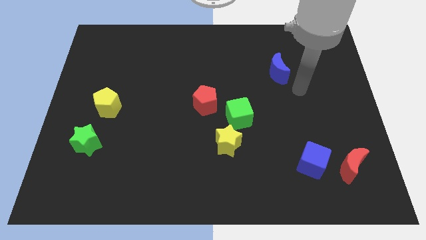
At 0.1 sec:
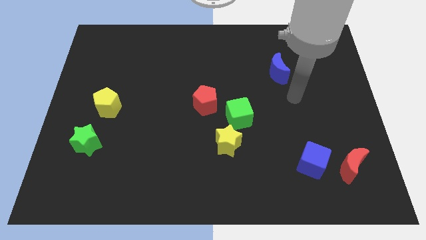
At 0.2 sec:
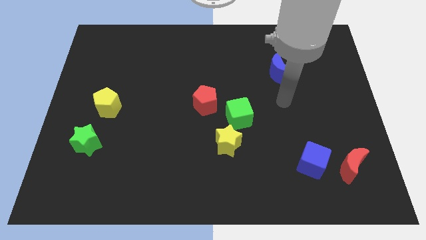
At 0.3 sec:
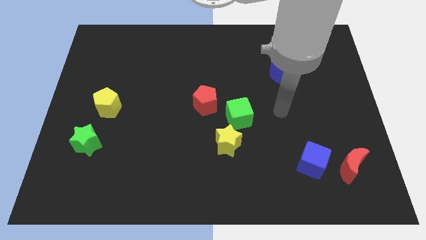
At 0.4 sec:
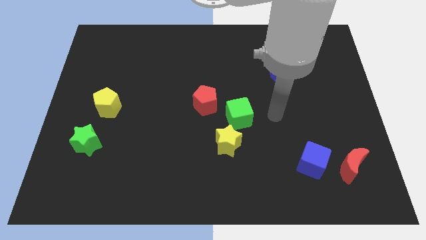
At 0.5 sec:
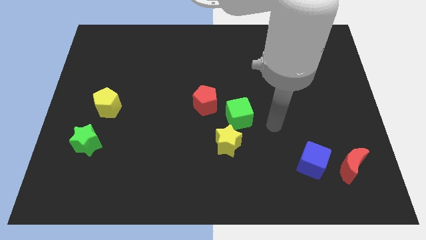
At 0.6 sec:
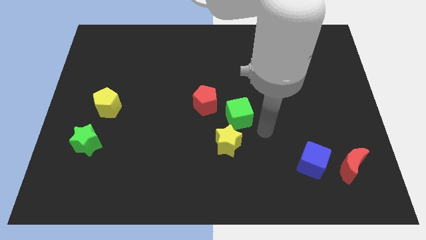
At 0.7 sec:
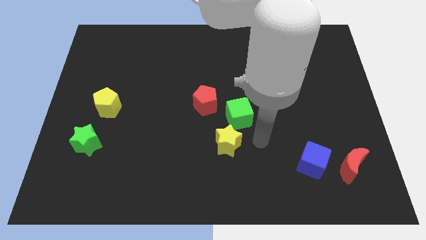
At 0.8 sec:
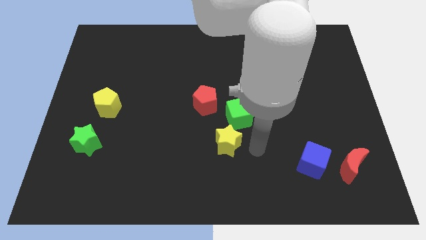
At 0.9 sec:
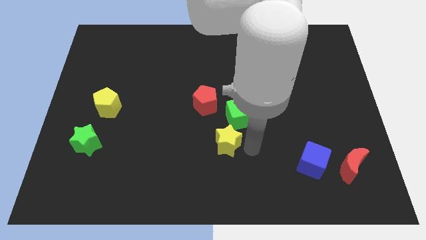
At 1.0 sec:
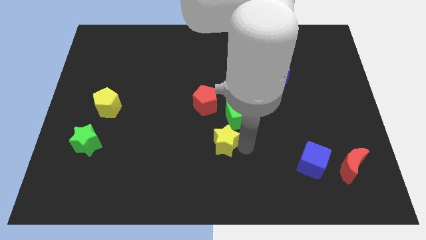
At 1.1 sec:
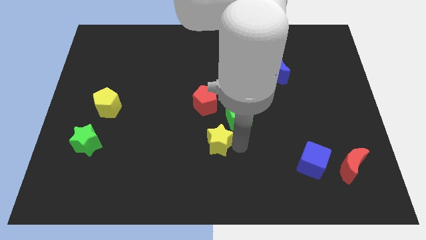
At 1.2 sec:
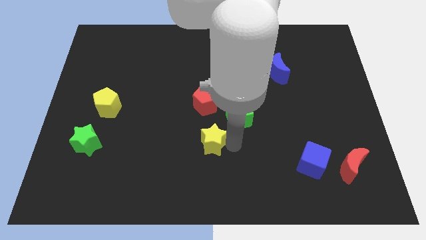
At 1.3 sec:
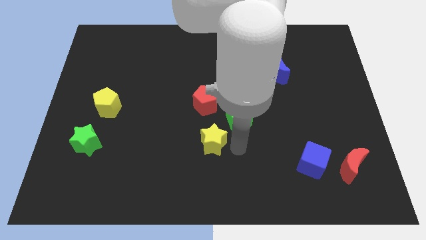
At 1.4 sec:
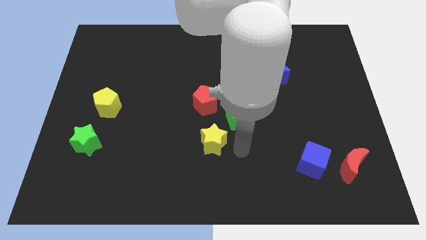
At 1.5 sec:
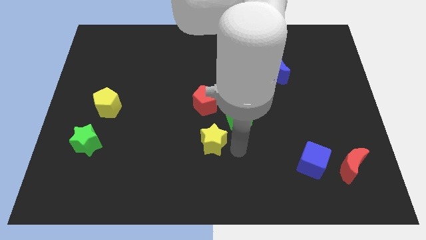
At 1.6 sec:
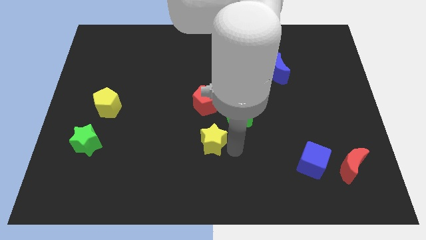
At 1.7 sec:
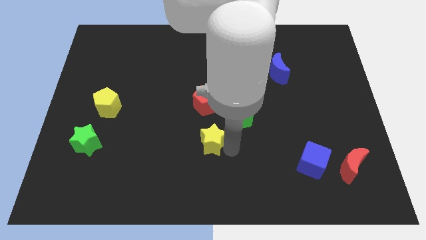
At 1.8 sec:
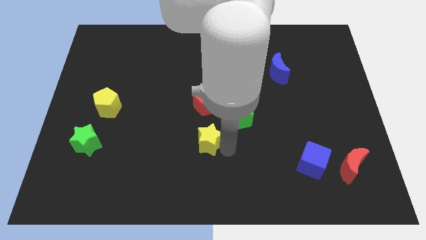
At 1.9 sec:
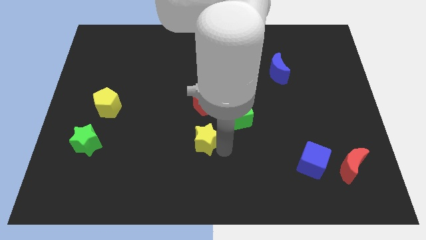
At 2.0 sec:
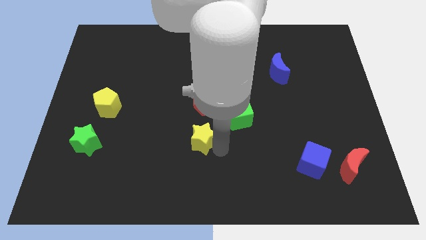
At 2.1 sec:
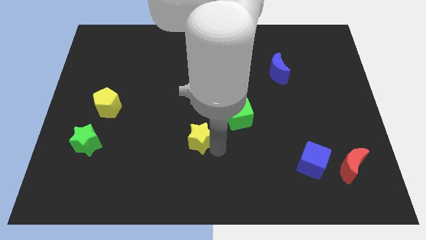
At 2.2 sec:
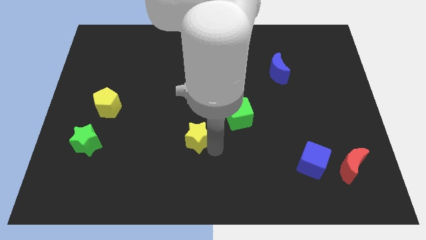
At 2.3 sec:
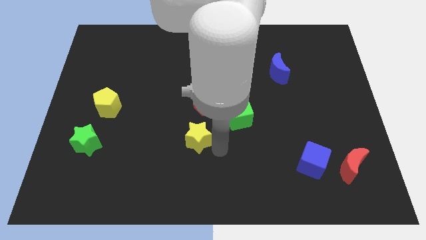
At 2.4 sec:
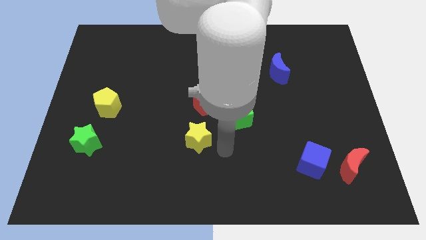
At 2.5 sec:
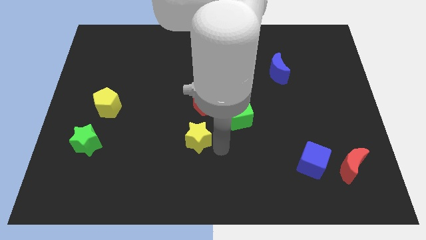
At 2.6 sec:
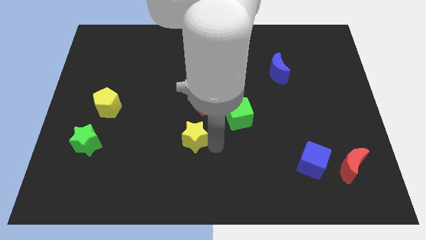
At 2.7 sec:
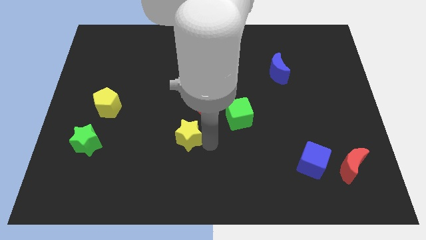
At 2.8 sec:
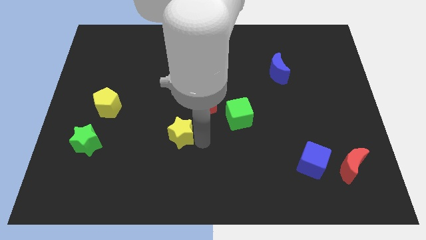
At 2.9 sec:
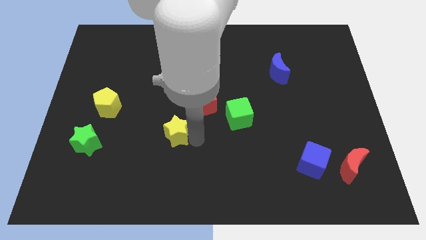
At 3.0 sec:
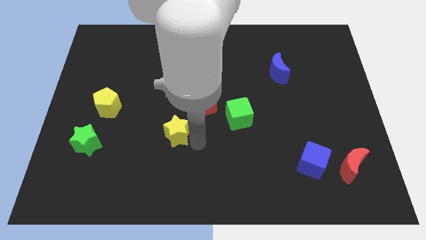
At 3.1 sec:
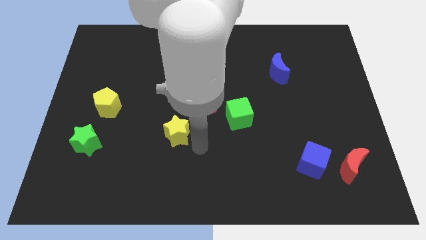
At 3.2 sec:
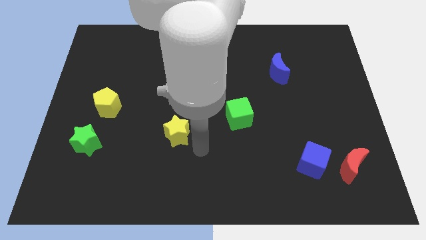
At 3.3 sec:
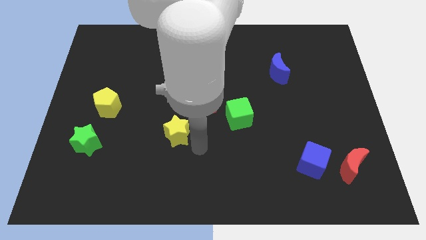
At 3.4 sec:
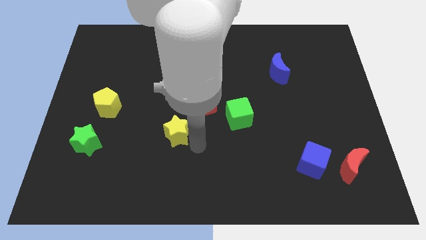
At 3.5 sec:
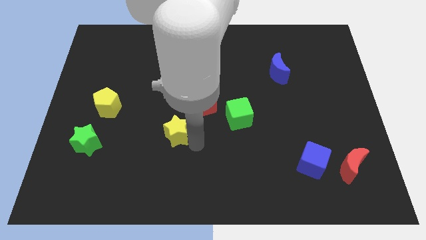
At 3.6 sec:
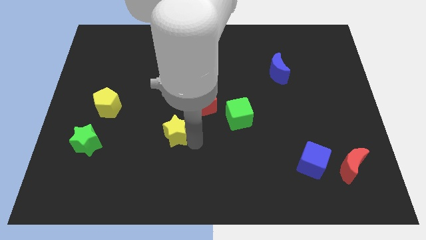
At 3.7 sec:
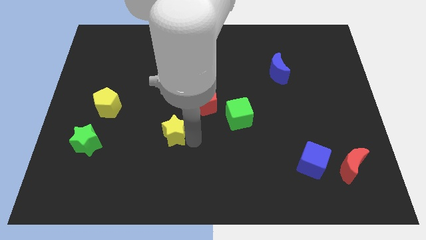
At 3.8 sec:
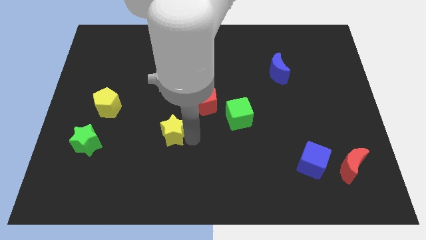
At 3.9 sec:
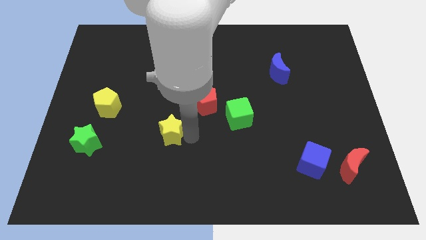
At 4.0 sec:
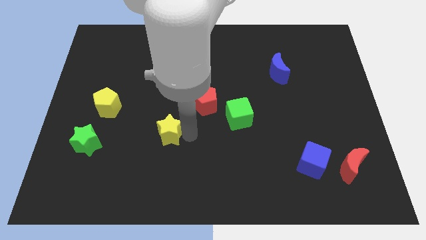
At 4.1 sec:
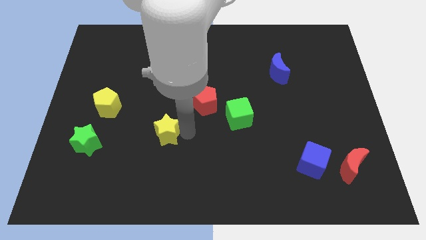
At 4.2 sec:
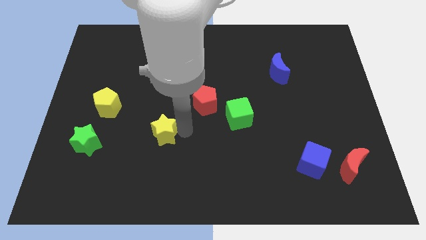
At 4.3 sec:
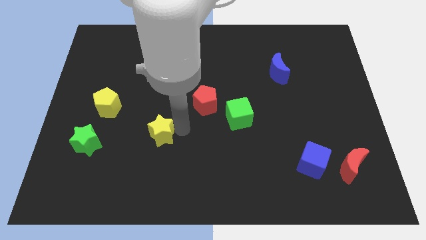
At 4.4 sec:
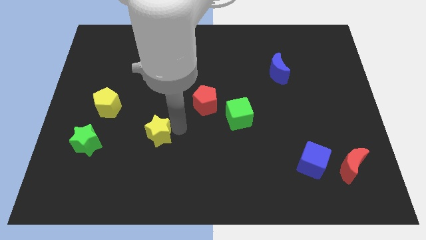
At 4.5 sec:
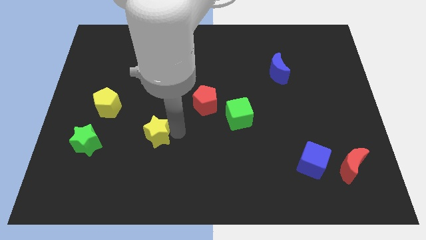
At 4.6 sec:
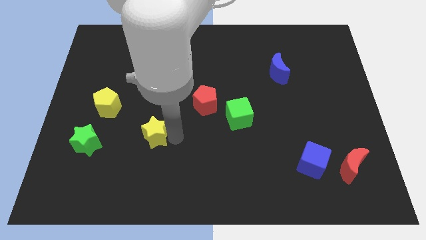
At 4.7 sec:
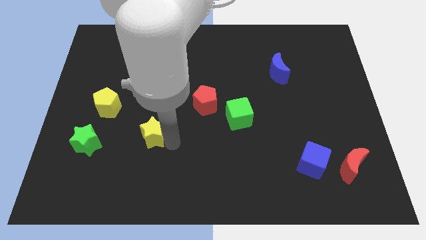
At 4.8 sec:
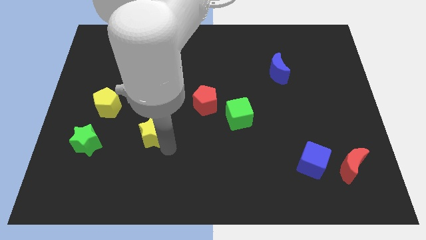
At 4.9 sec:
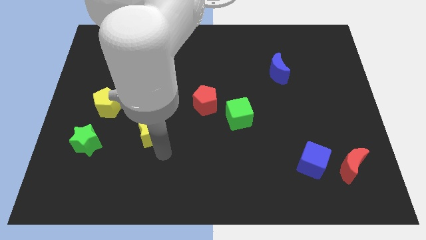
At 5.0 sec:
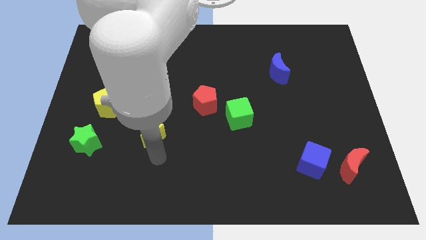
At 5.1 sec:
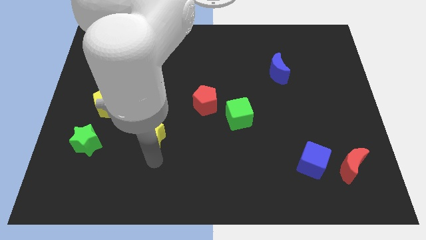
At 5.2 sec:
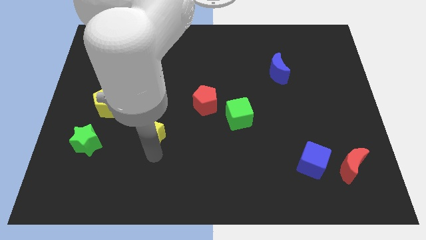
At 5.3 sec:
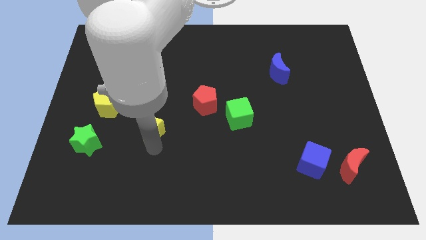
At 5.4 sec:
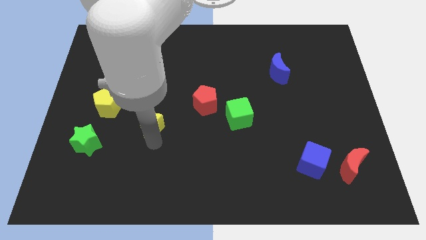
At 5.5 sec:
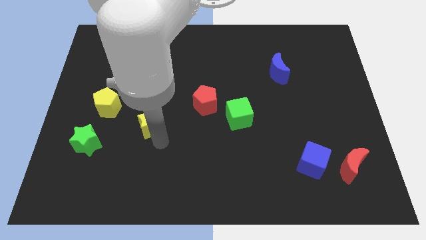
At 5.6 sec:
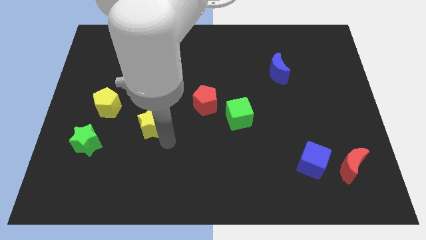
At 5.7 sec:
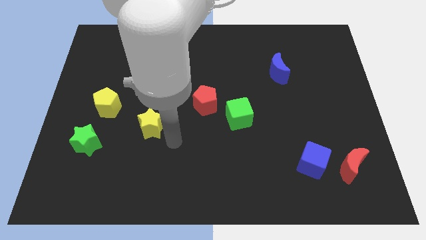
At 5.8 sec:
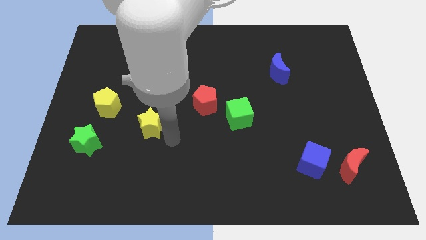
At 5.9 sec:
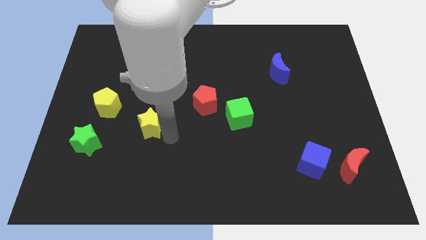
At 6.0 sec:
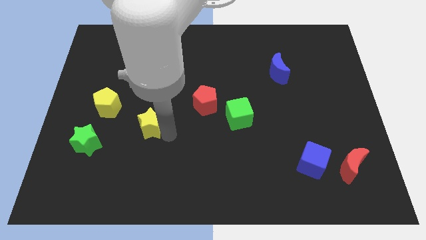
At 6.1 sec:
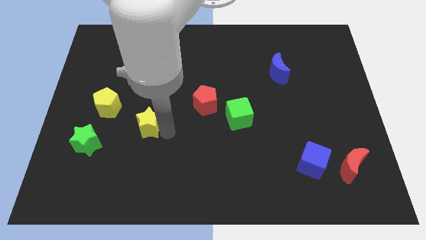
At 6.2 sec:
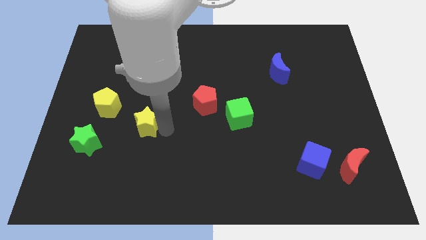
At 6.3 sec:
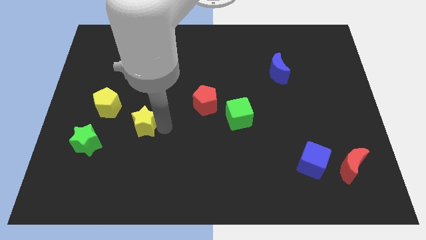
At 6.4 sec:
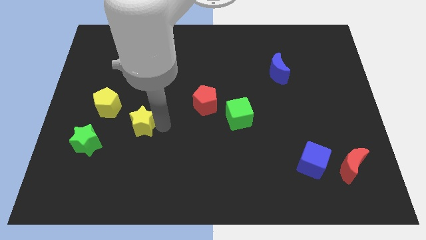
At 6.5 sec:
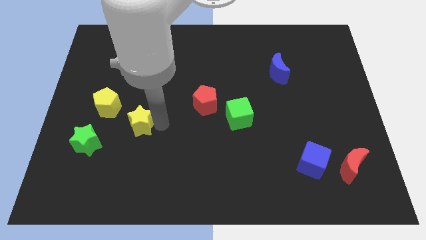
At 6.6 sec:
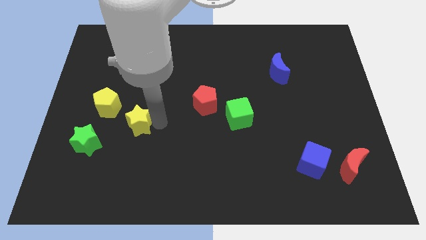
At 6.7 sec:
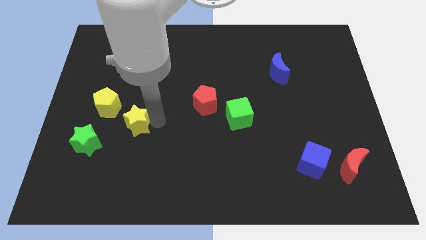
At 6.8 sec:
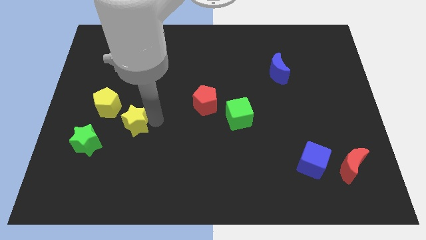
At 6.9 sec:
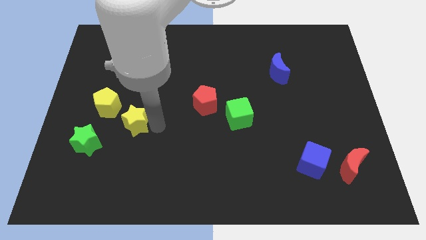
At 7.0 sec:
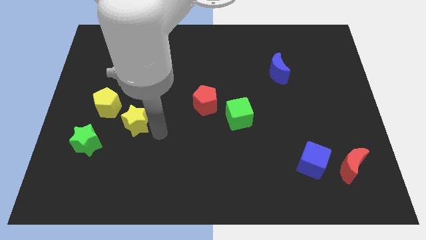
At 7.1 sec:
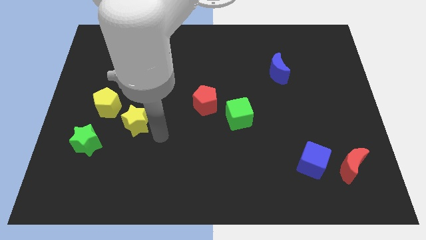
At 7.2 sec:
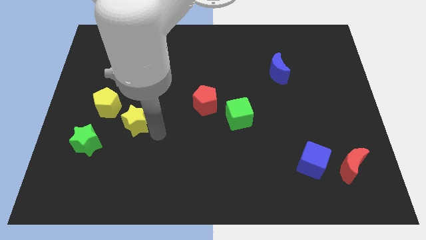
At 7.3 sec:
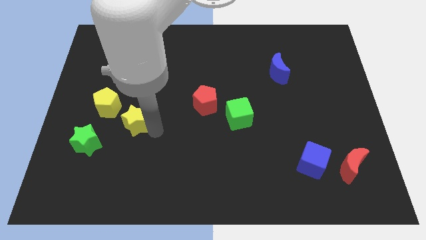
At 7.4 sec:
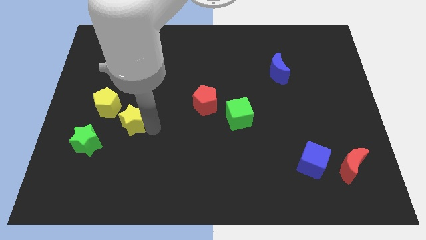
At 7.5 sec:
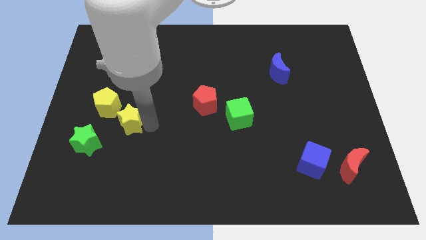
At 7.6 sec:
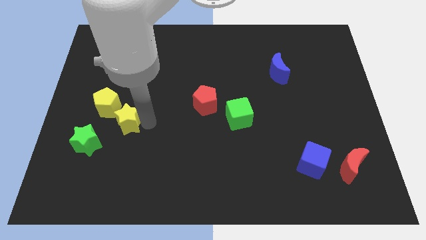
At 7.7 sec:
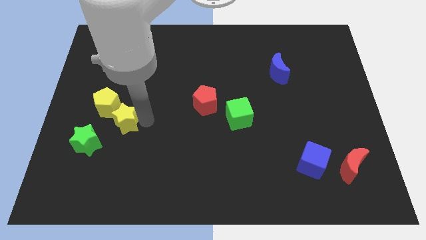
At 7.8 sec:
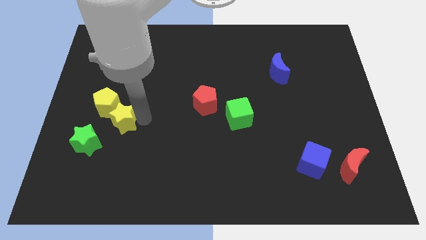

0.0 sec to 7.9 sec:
put the yellow star towards the yellow pentagon
